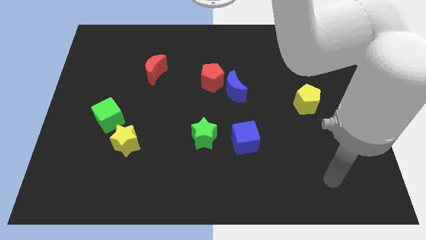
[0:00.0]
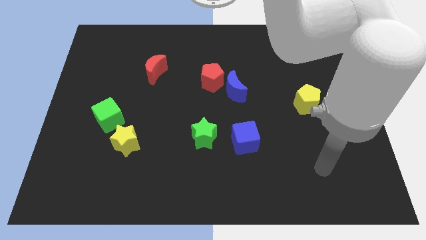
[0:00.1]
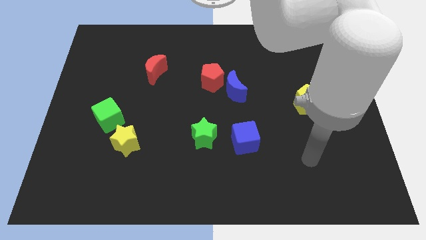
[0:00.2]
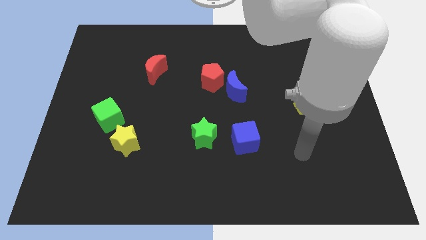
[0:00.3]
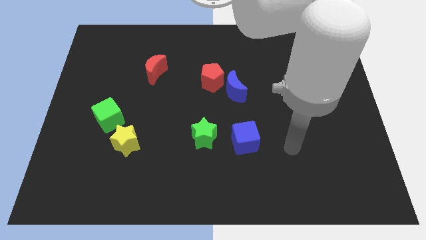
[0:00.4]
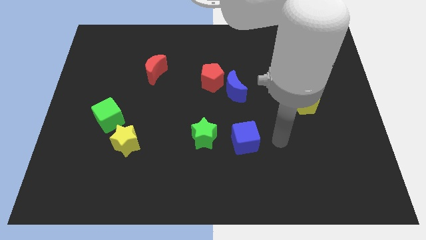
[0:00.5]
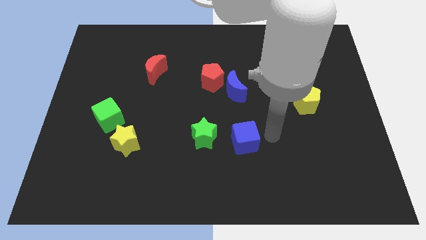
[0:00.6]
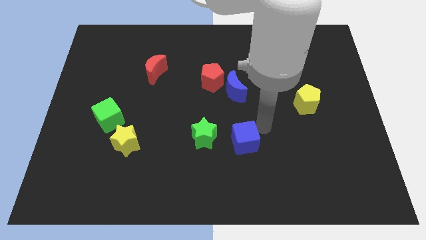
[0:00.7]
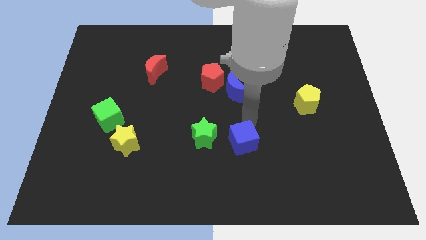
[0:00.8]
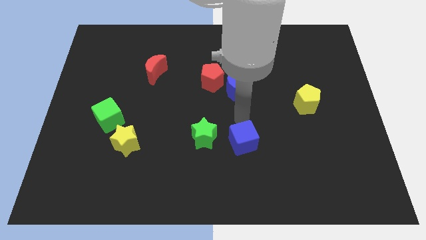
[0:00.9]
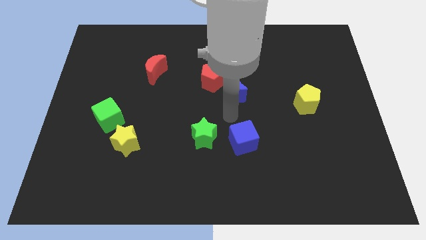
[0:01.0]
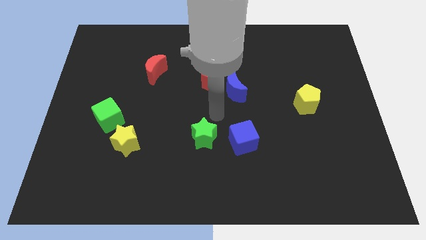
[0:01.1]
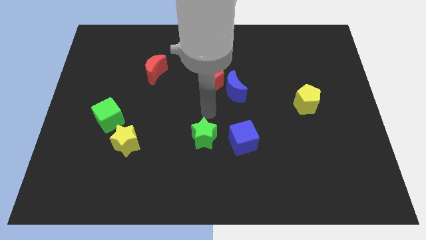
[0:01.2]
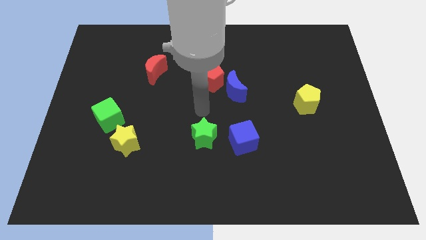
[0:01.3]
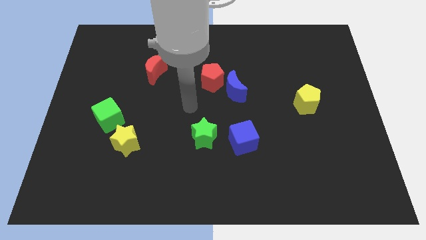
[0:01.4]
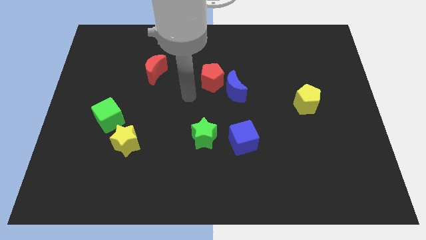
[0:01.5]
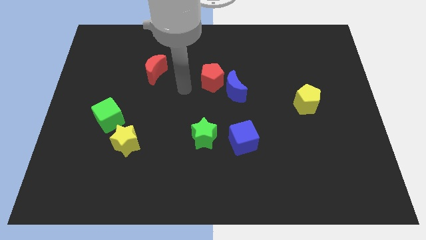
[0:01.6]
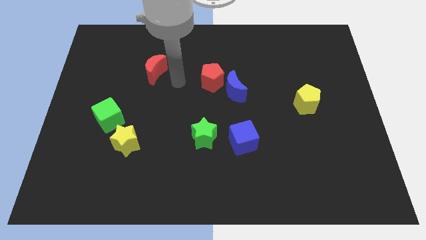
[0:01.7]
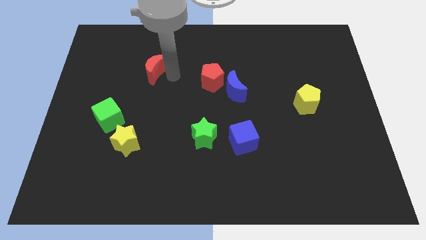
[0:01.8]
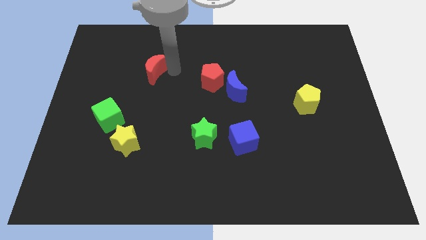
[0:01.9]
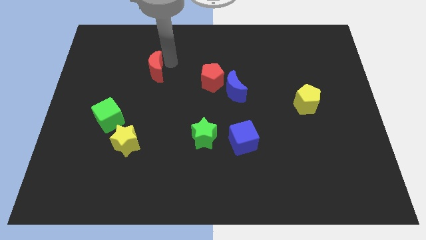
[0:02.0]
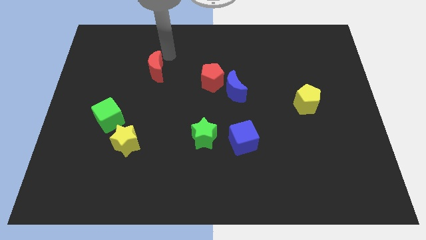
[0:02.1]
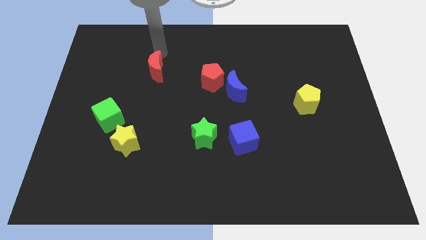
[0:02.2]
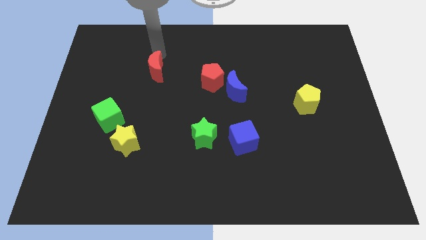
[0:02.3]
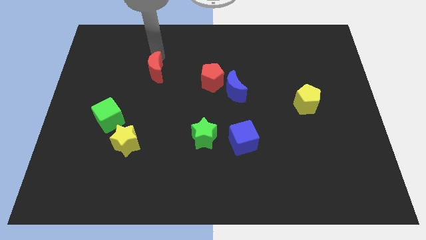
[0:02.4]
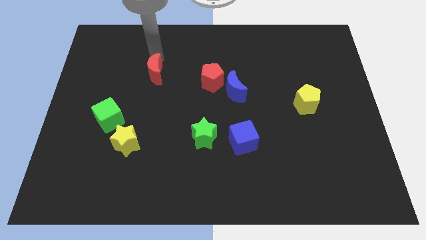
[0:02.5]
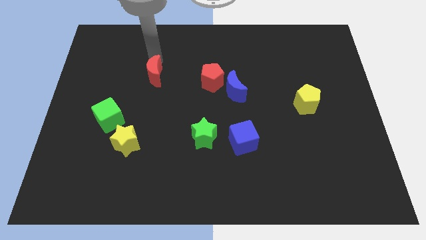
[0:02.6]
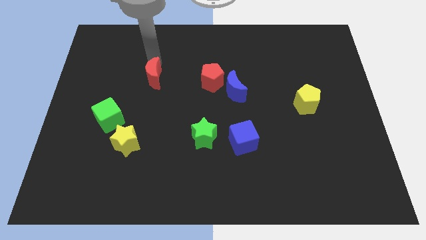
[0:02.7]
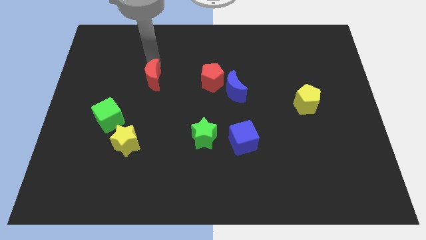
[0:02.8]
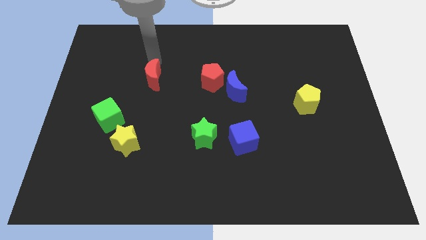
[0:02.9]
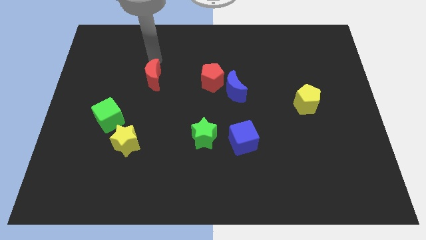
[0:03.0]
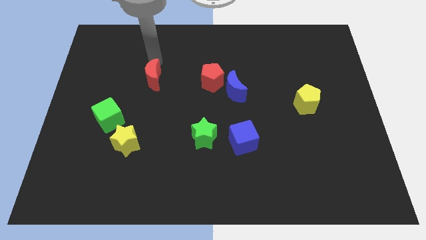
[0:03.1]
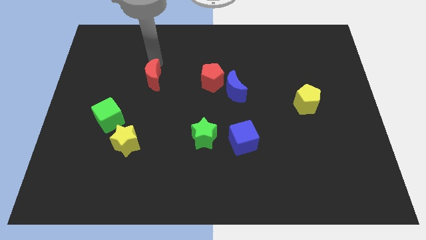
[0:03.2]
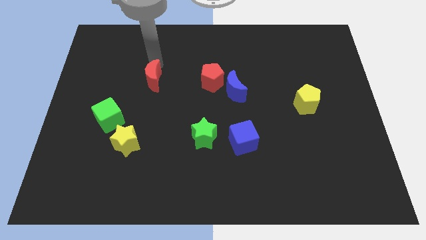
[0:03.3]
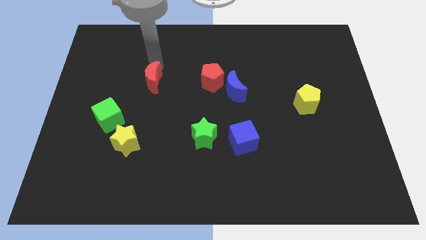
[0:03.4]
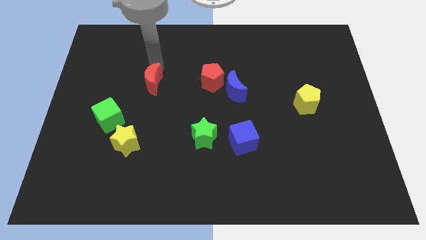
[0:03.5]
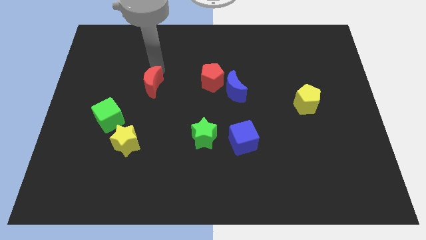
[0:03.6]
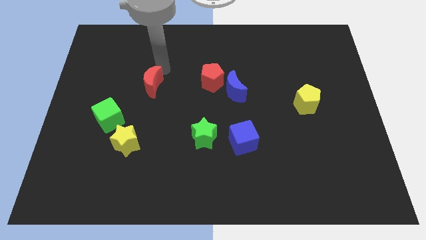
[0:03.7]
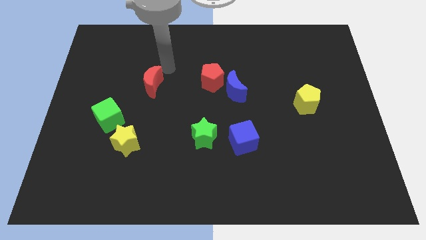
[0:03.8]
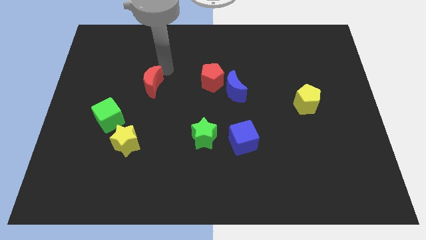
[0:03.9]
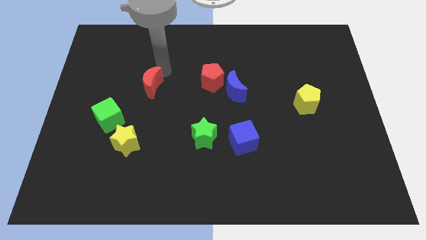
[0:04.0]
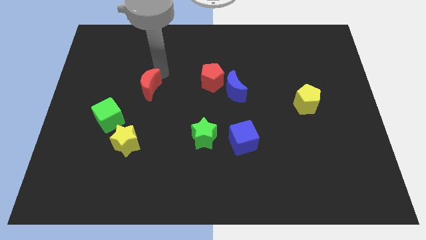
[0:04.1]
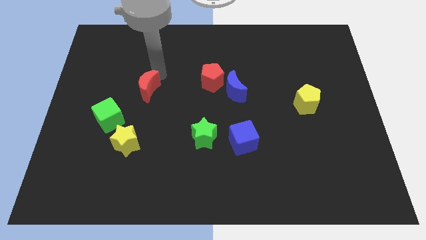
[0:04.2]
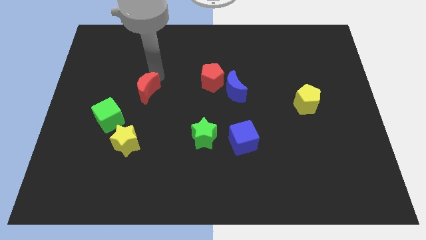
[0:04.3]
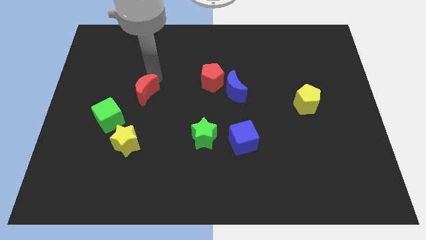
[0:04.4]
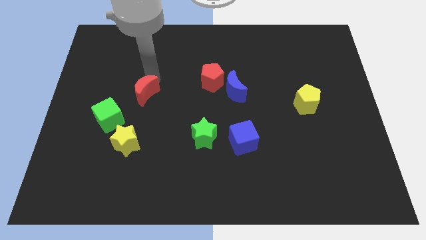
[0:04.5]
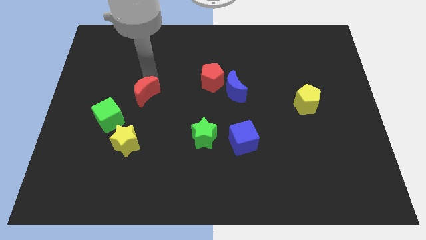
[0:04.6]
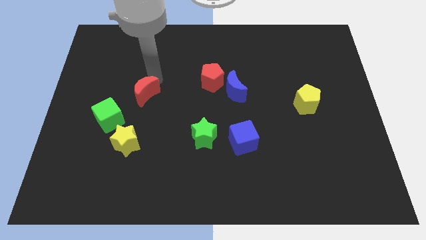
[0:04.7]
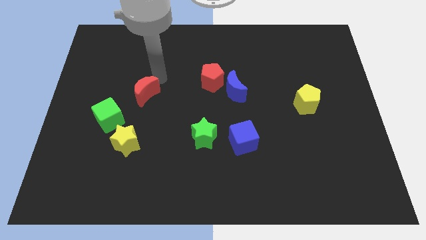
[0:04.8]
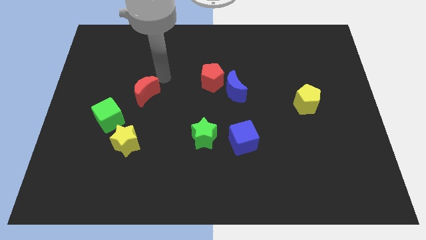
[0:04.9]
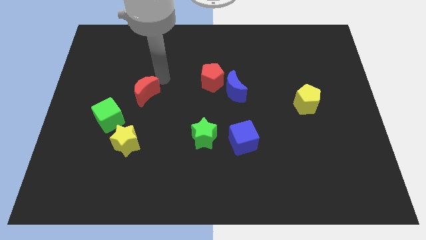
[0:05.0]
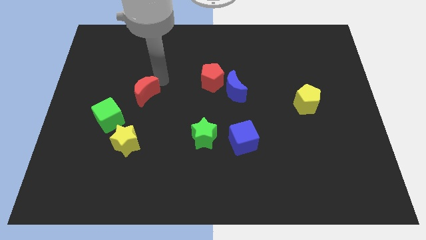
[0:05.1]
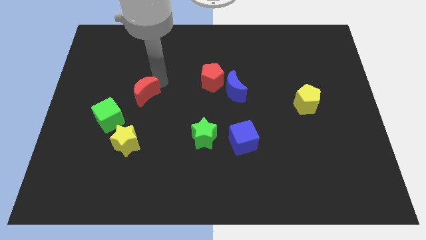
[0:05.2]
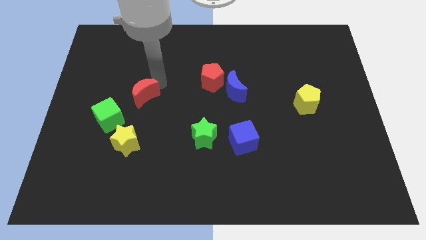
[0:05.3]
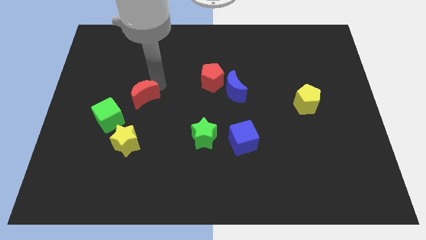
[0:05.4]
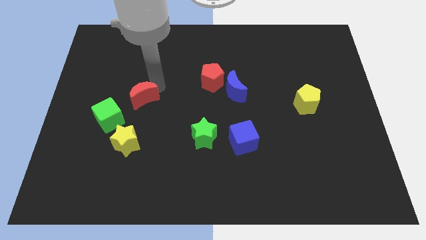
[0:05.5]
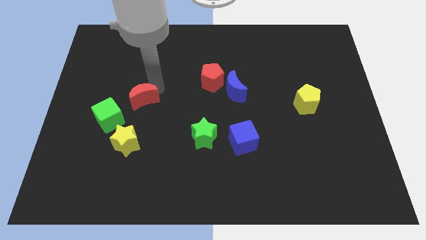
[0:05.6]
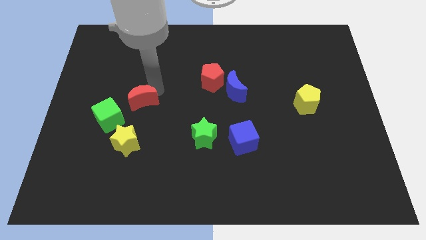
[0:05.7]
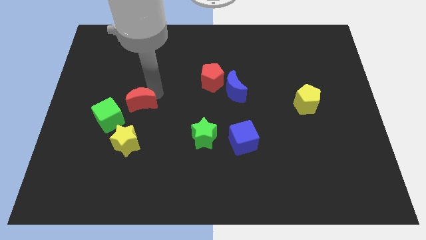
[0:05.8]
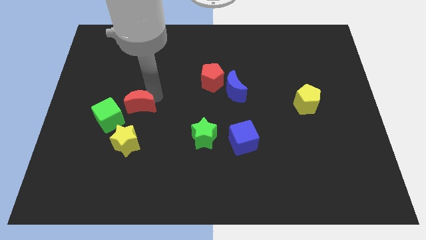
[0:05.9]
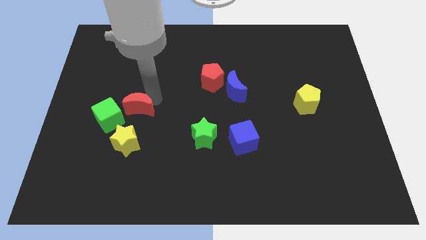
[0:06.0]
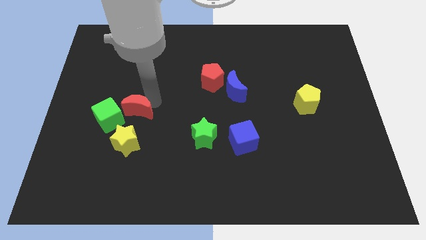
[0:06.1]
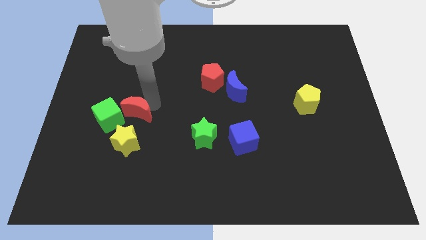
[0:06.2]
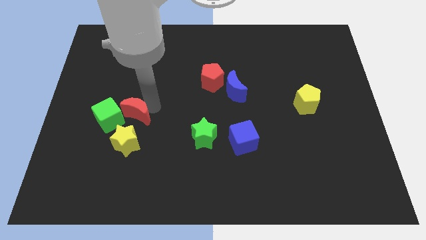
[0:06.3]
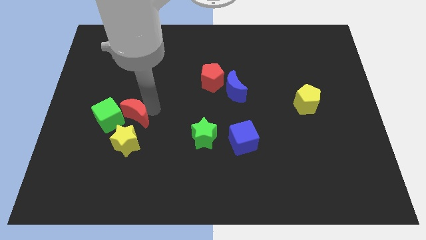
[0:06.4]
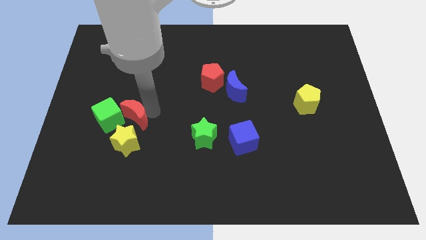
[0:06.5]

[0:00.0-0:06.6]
put the red moon towards the green cube

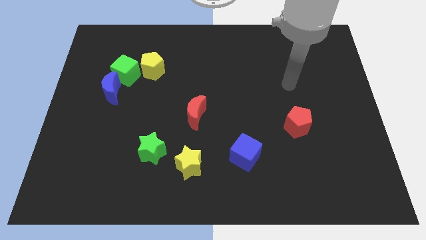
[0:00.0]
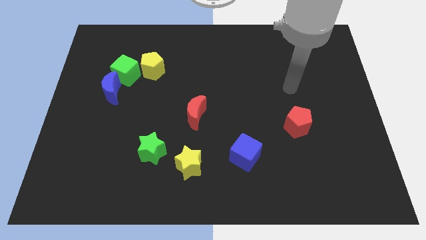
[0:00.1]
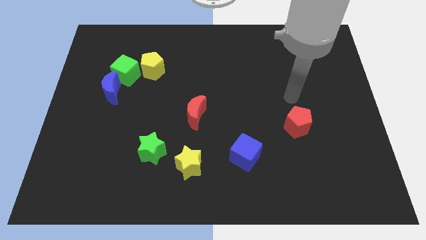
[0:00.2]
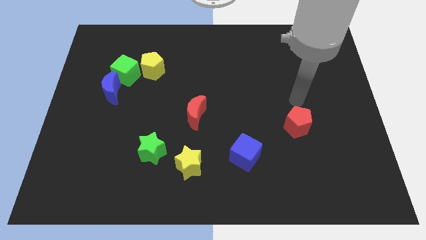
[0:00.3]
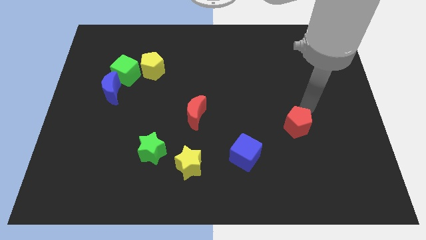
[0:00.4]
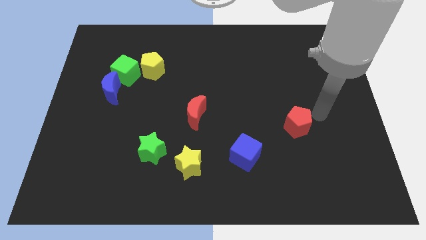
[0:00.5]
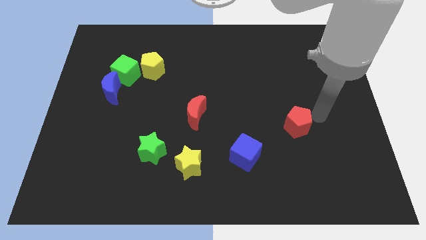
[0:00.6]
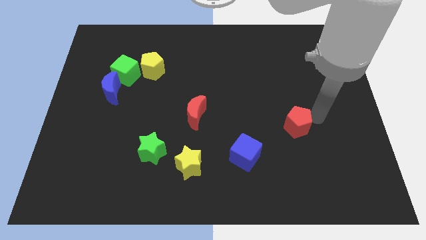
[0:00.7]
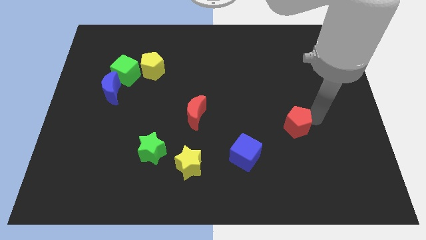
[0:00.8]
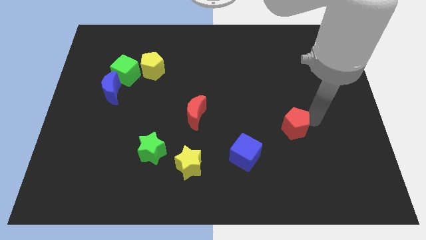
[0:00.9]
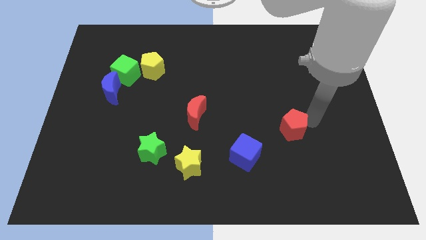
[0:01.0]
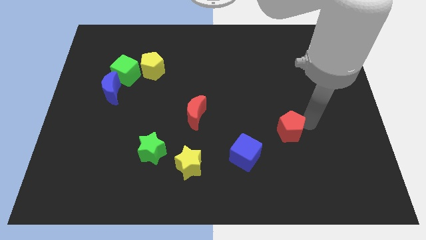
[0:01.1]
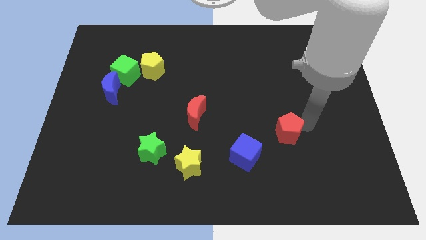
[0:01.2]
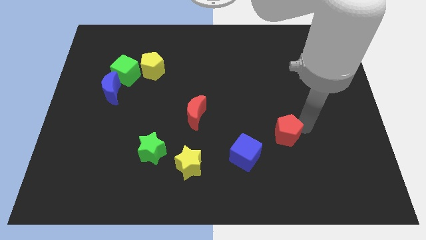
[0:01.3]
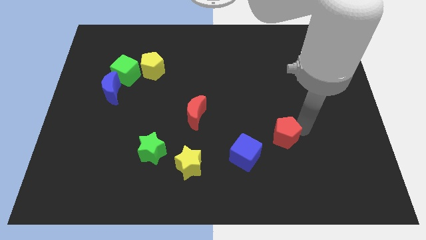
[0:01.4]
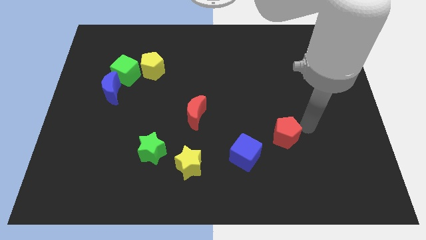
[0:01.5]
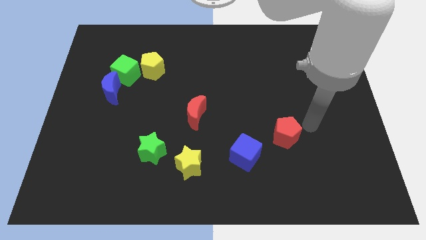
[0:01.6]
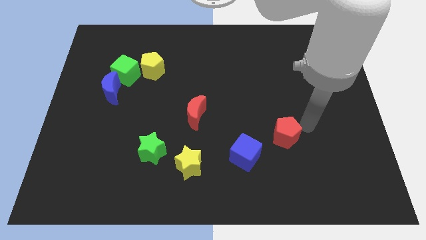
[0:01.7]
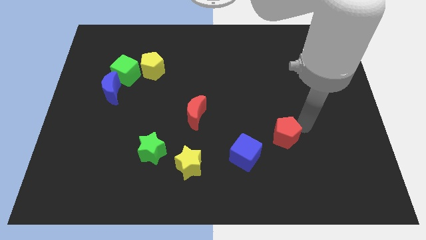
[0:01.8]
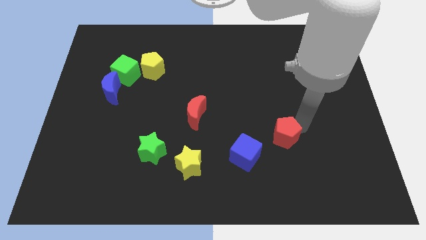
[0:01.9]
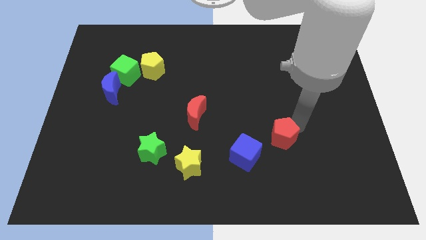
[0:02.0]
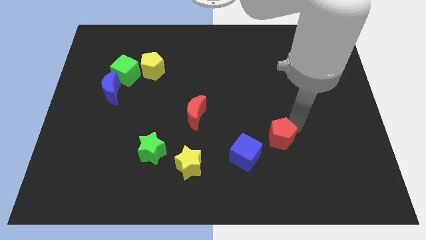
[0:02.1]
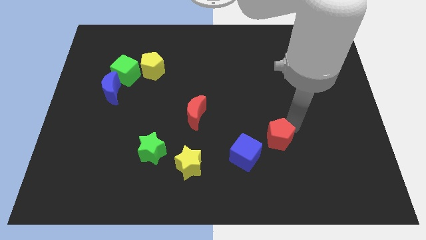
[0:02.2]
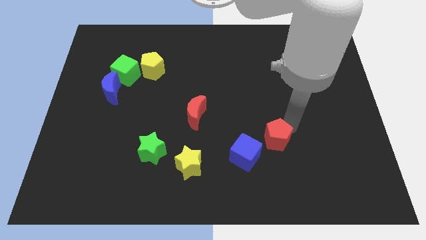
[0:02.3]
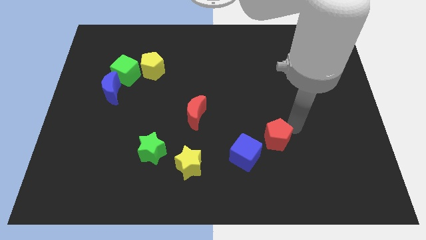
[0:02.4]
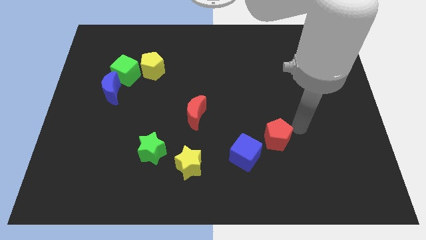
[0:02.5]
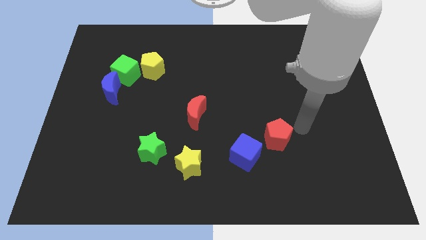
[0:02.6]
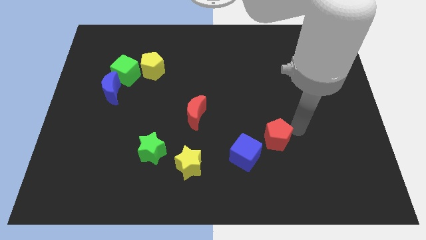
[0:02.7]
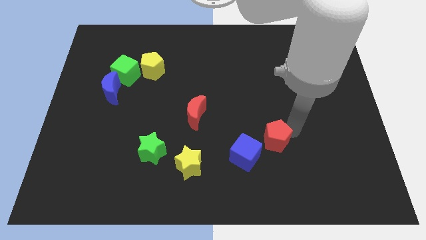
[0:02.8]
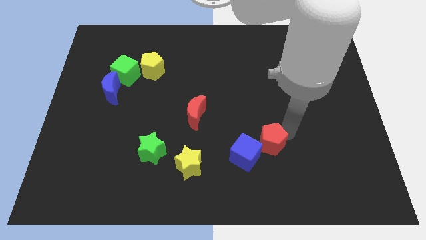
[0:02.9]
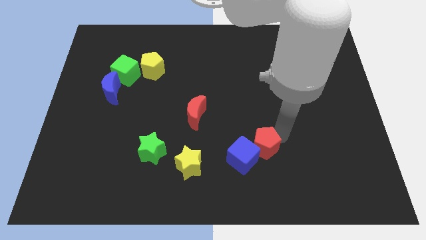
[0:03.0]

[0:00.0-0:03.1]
put the red pentagon close to the blue cube
